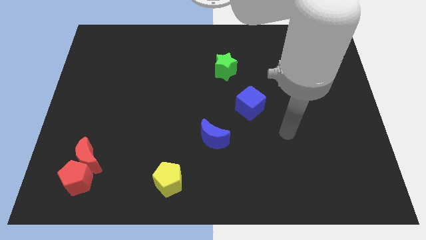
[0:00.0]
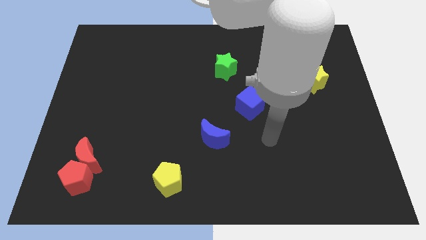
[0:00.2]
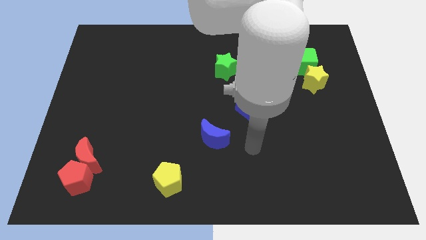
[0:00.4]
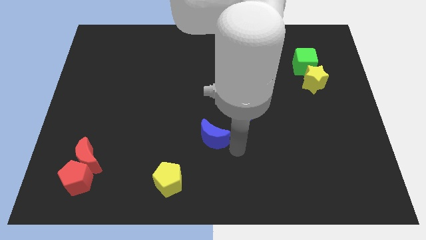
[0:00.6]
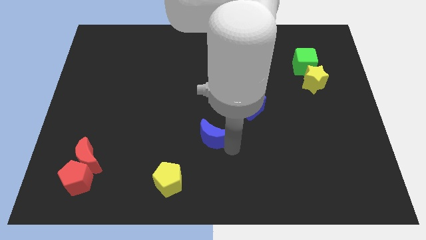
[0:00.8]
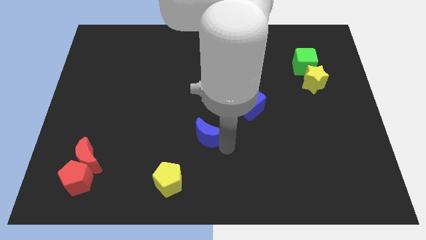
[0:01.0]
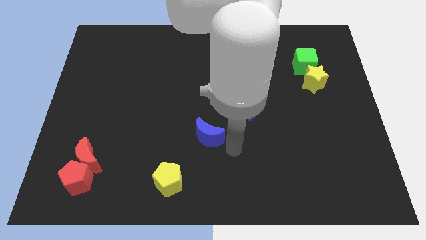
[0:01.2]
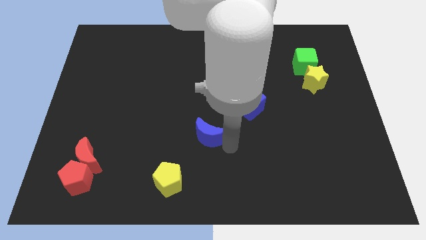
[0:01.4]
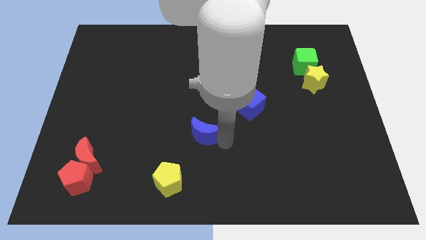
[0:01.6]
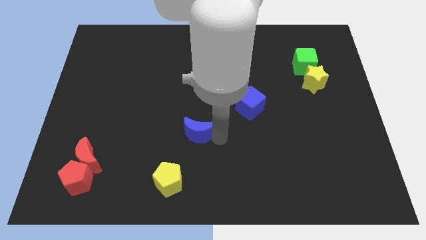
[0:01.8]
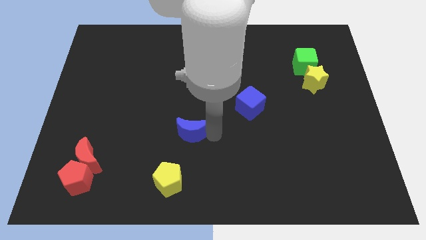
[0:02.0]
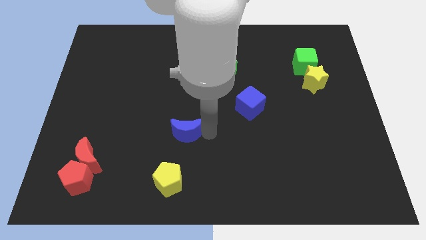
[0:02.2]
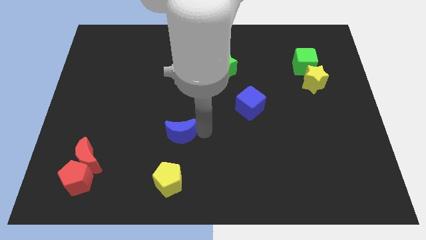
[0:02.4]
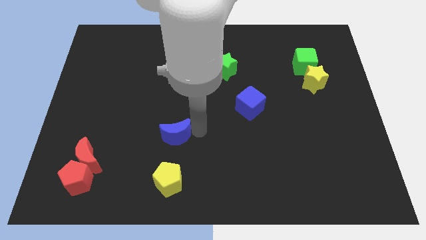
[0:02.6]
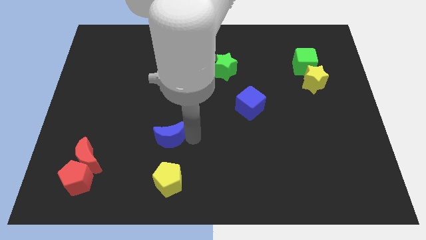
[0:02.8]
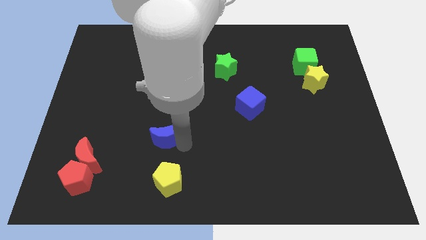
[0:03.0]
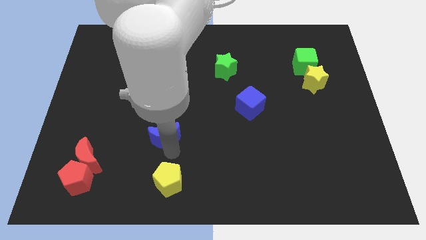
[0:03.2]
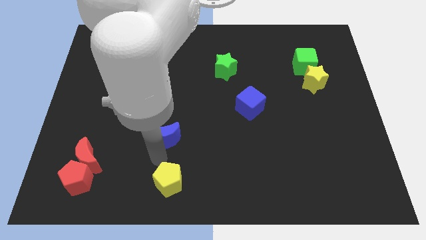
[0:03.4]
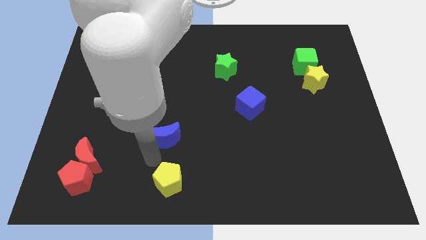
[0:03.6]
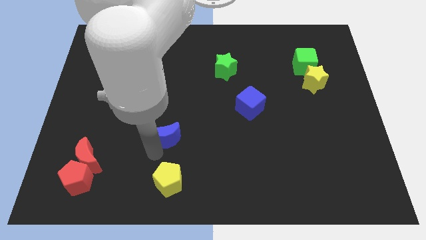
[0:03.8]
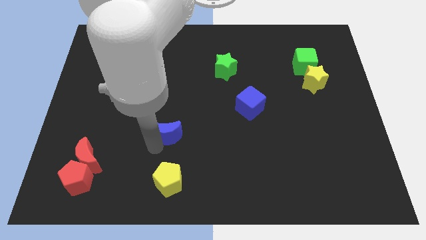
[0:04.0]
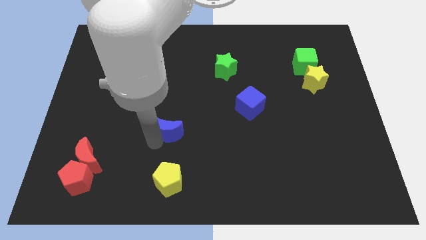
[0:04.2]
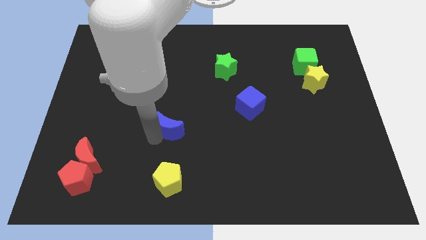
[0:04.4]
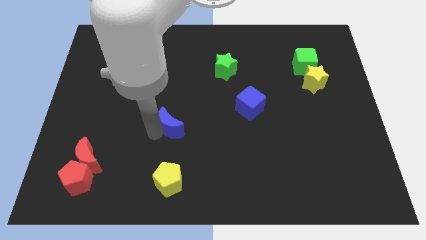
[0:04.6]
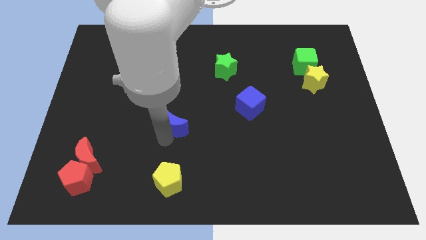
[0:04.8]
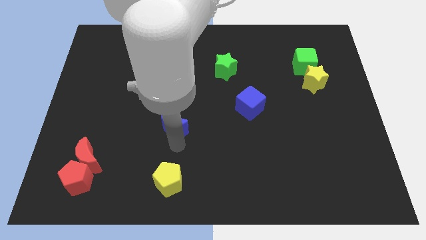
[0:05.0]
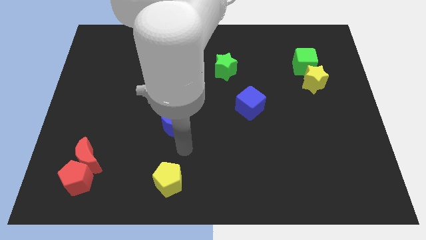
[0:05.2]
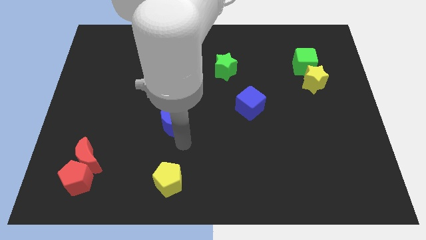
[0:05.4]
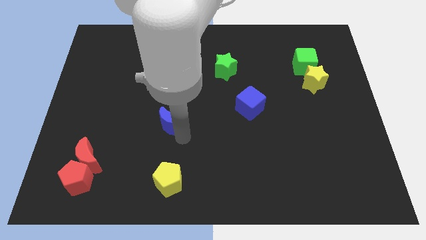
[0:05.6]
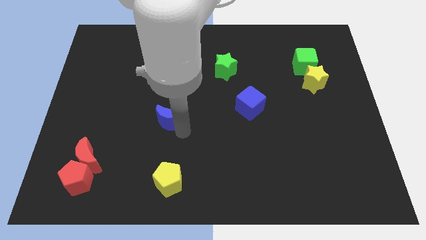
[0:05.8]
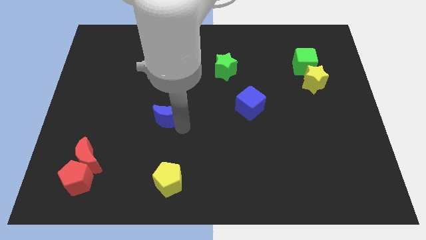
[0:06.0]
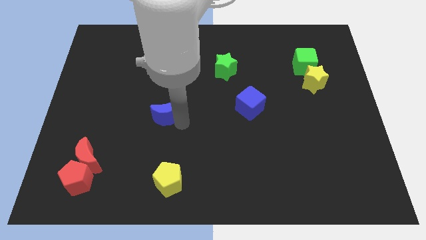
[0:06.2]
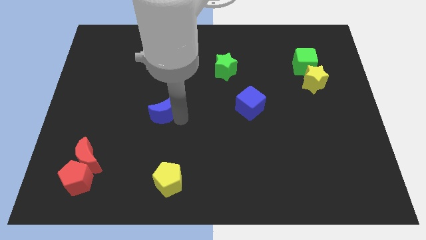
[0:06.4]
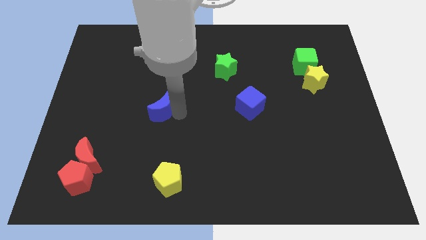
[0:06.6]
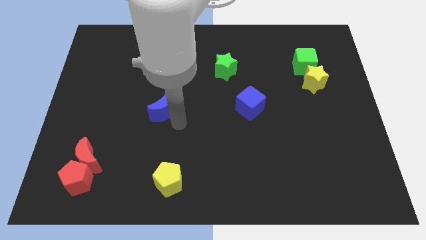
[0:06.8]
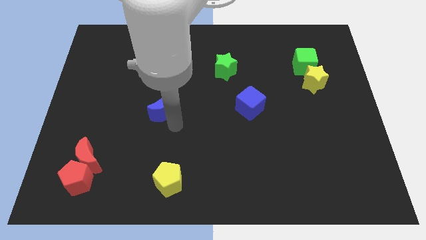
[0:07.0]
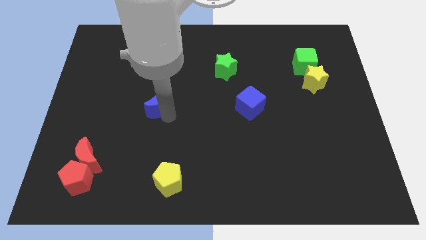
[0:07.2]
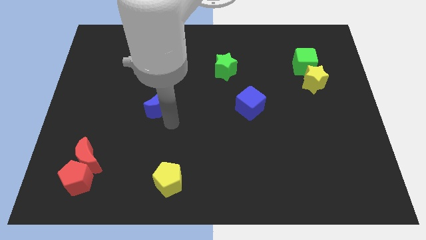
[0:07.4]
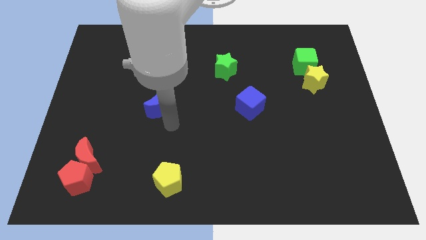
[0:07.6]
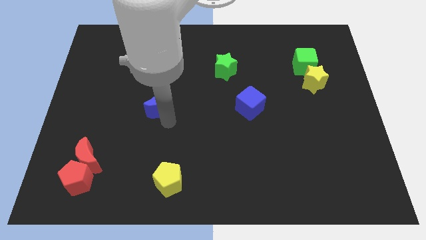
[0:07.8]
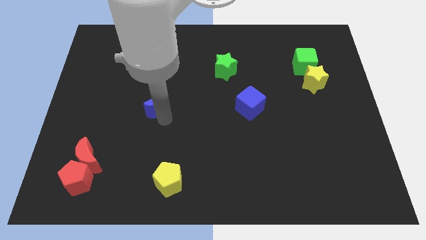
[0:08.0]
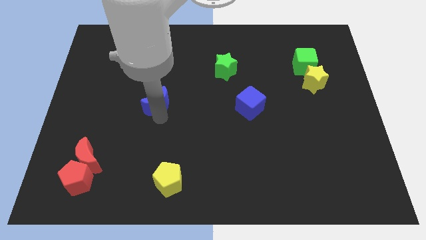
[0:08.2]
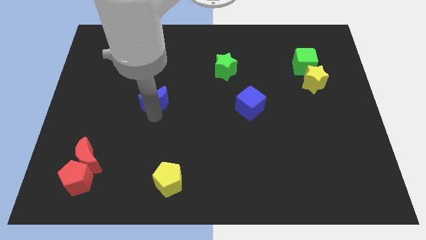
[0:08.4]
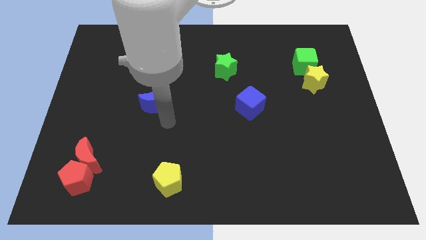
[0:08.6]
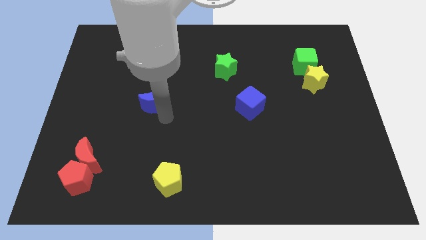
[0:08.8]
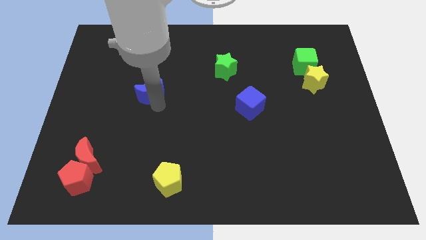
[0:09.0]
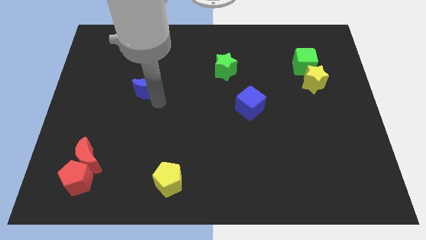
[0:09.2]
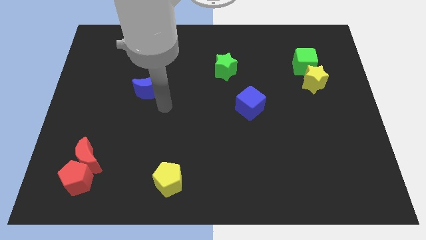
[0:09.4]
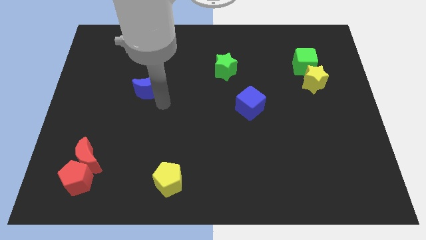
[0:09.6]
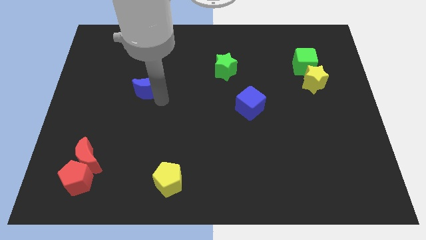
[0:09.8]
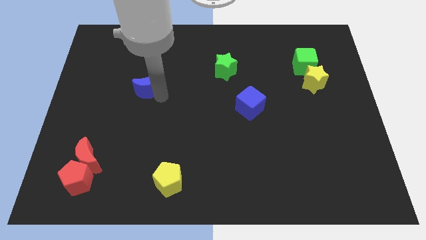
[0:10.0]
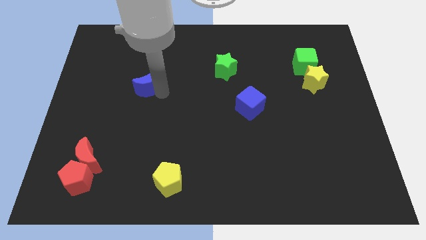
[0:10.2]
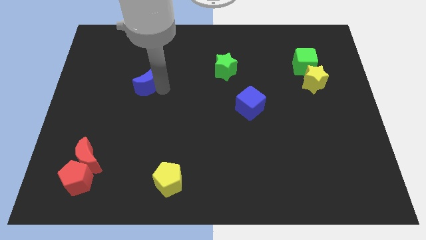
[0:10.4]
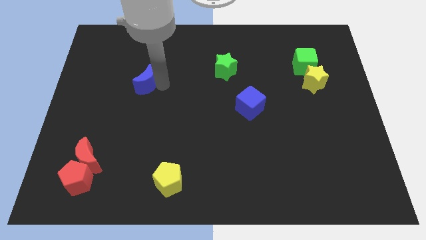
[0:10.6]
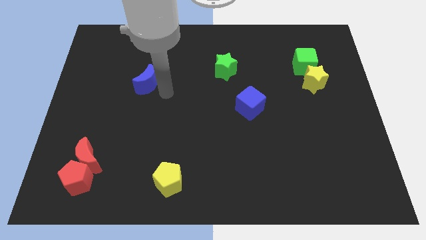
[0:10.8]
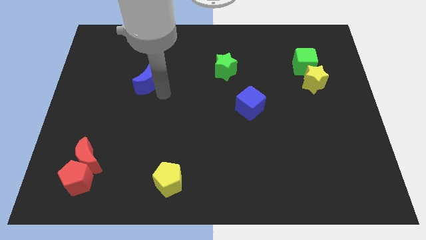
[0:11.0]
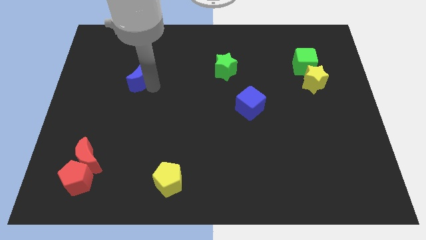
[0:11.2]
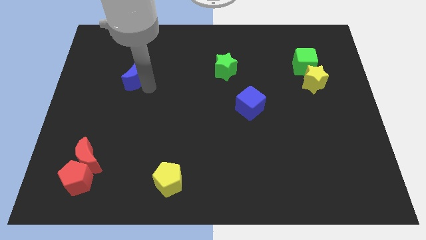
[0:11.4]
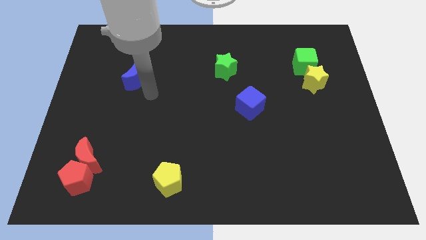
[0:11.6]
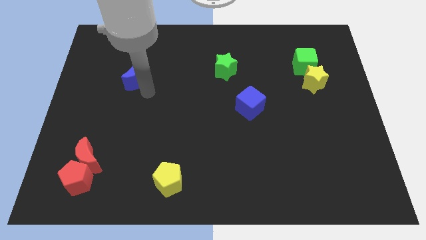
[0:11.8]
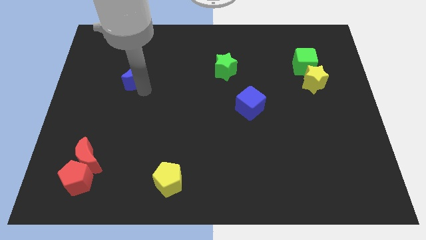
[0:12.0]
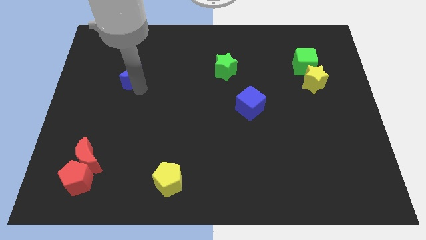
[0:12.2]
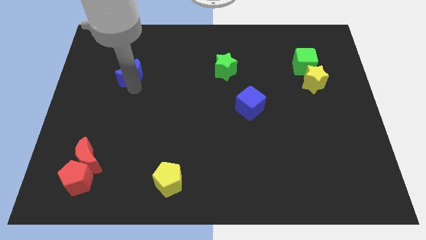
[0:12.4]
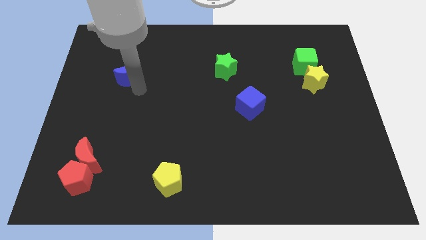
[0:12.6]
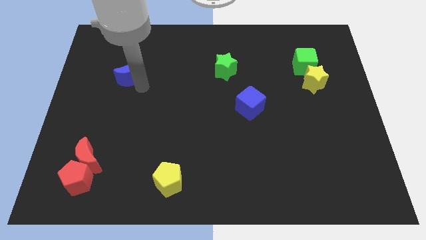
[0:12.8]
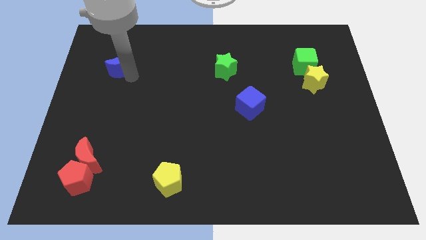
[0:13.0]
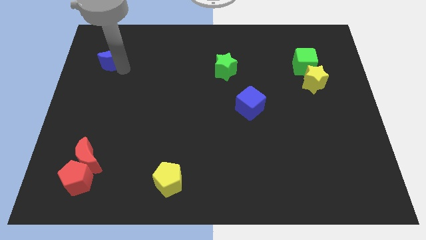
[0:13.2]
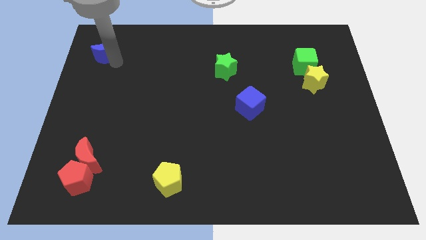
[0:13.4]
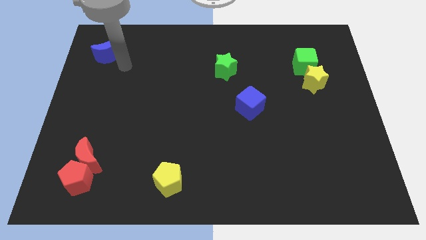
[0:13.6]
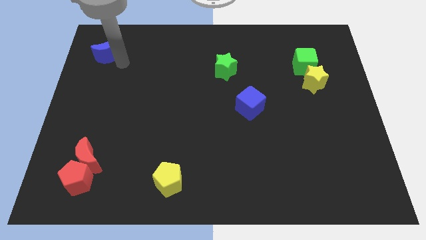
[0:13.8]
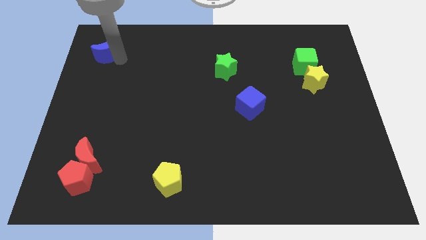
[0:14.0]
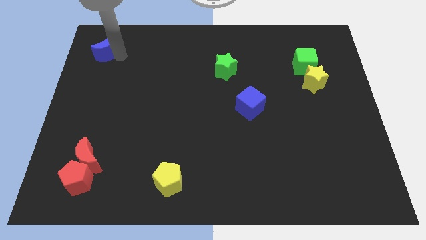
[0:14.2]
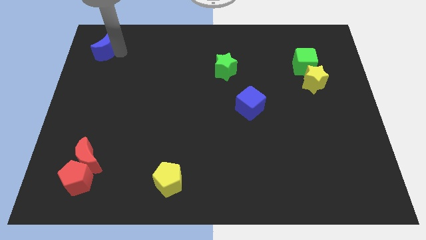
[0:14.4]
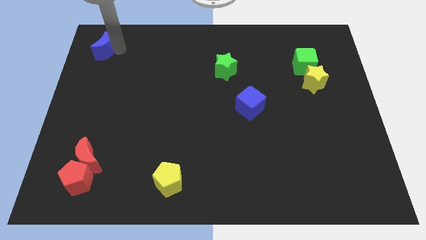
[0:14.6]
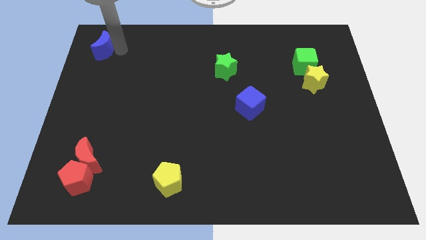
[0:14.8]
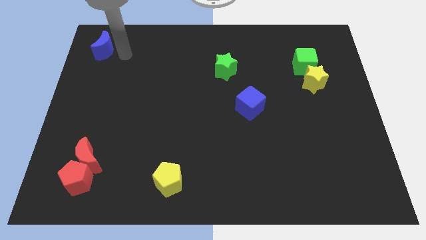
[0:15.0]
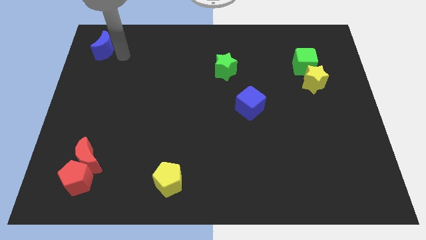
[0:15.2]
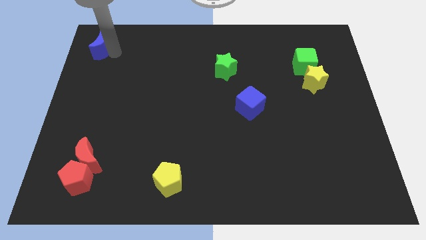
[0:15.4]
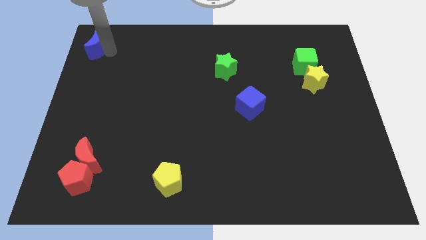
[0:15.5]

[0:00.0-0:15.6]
push the blue moon to the upper left corner
